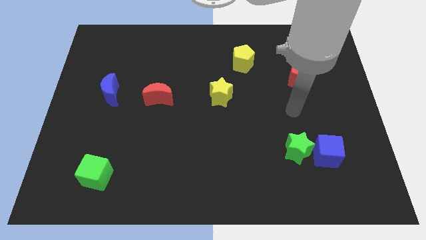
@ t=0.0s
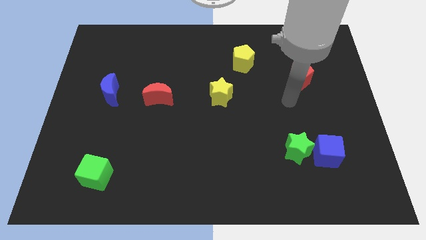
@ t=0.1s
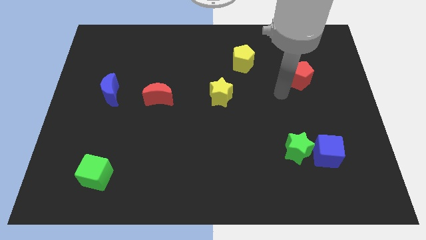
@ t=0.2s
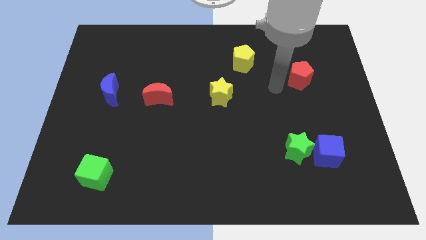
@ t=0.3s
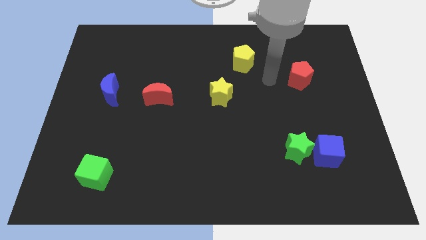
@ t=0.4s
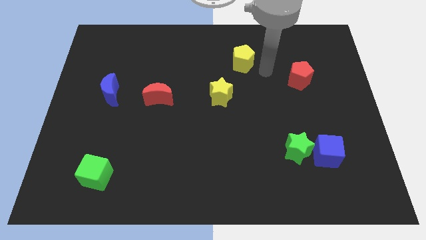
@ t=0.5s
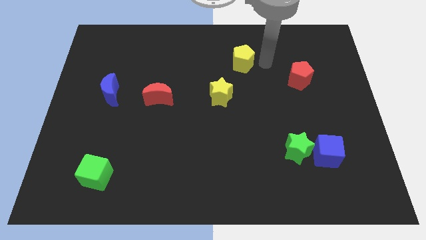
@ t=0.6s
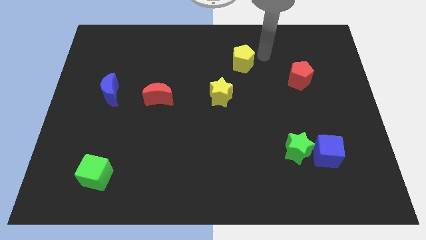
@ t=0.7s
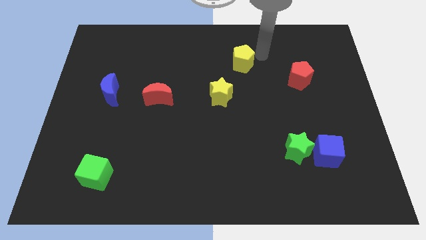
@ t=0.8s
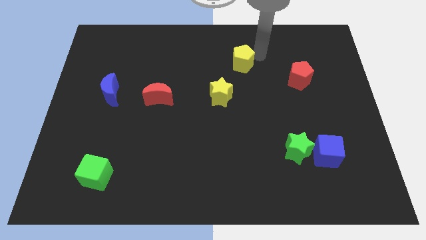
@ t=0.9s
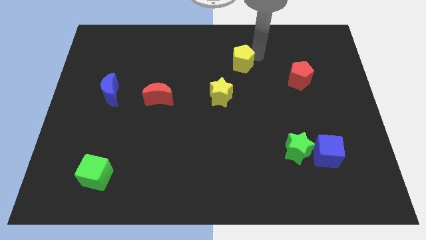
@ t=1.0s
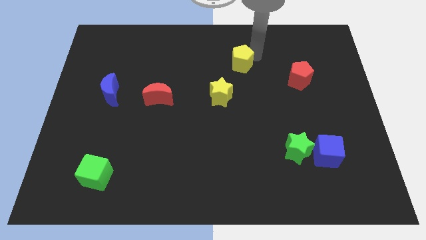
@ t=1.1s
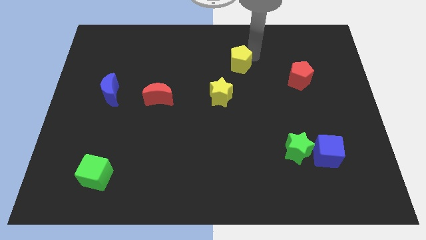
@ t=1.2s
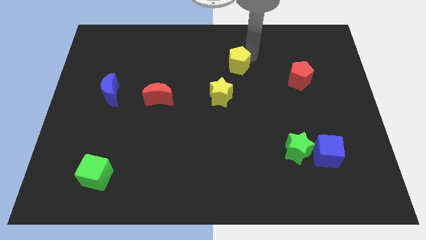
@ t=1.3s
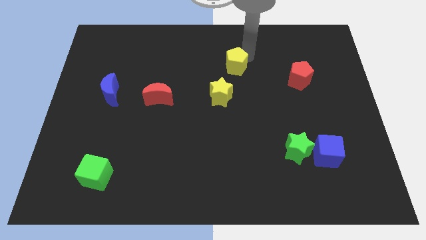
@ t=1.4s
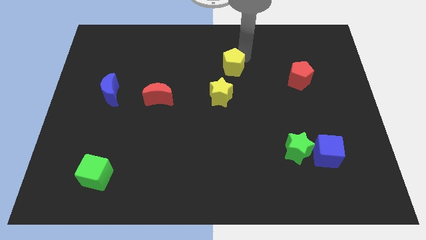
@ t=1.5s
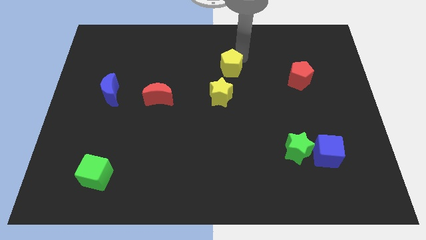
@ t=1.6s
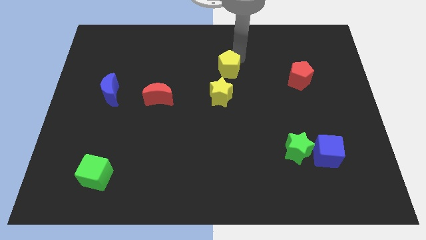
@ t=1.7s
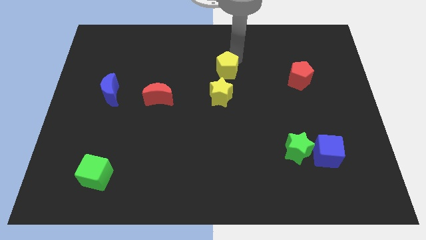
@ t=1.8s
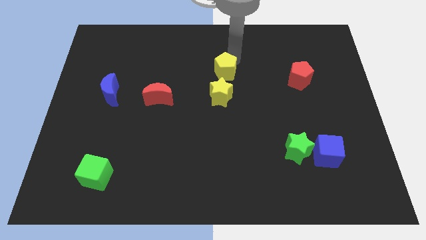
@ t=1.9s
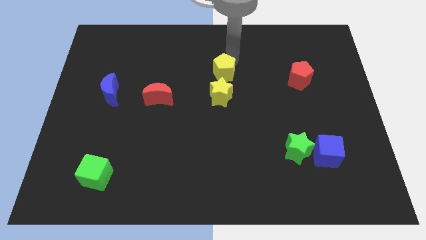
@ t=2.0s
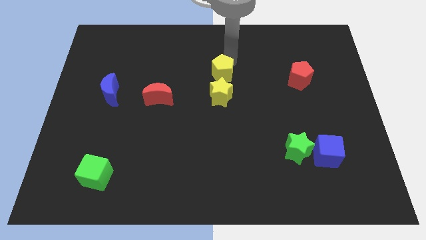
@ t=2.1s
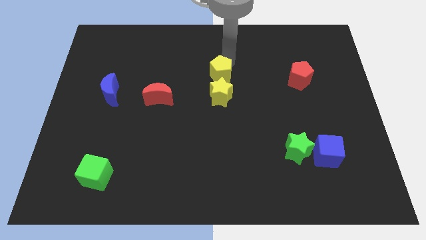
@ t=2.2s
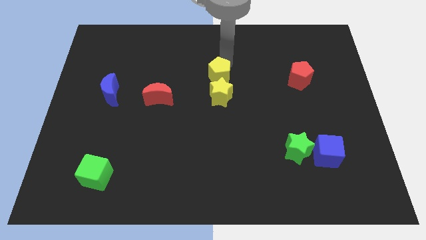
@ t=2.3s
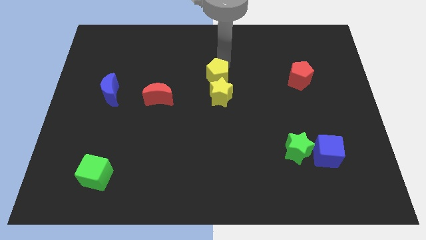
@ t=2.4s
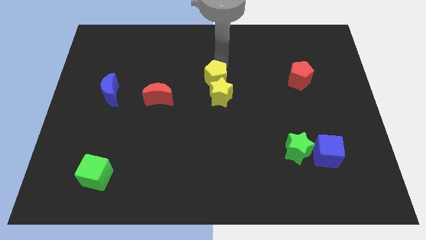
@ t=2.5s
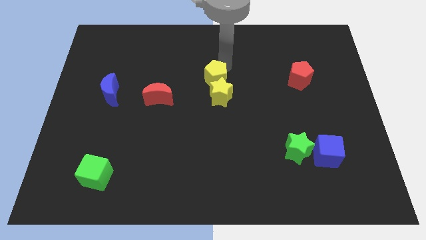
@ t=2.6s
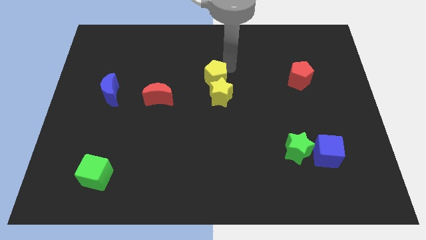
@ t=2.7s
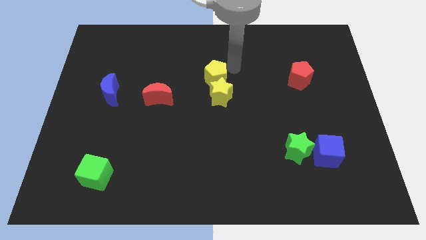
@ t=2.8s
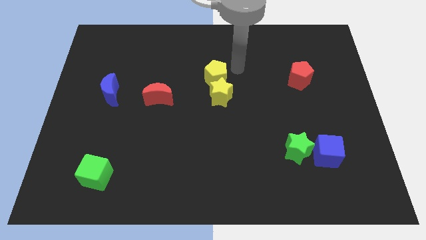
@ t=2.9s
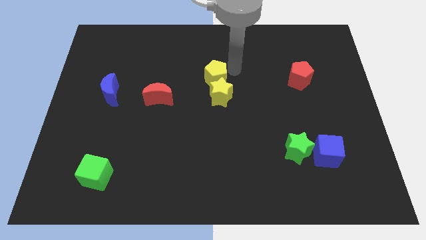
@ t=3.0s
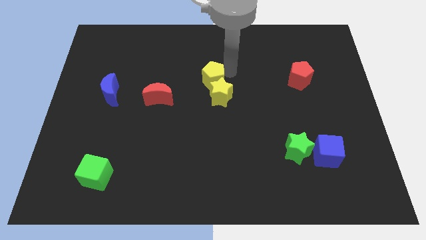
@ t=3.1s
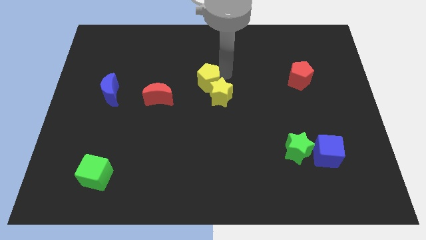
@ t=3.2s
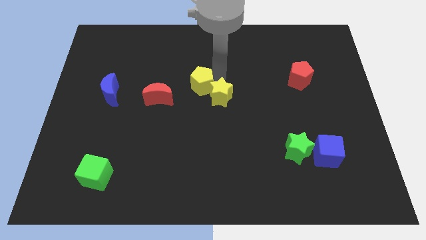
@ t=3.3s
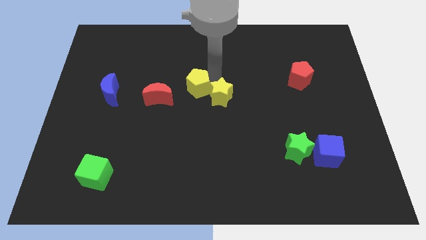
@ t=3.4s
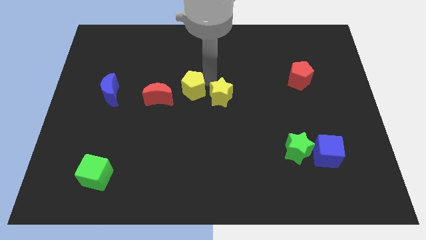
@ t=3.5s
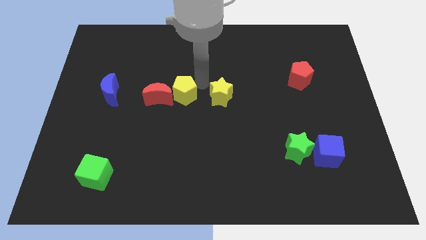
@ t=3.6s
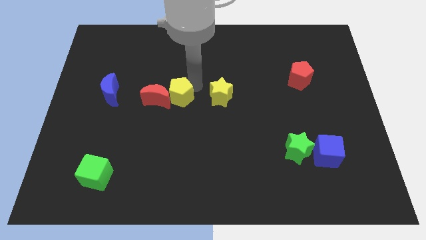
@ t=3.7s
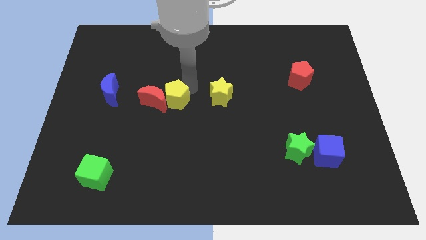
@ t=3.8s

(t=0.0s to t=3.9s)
move the yellow pentagon downwards and to the left diagonally

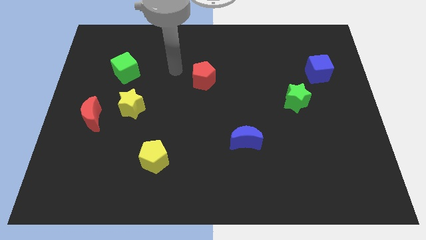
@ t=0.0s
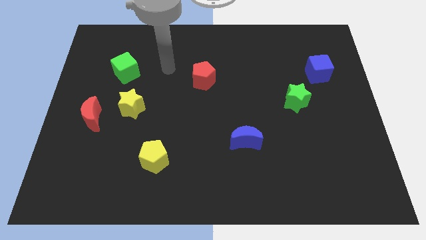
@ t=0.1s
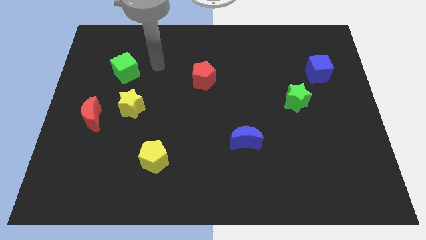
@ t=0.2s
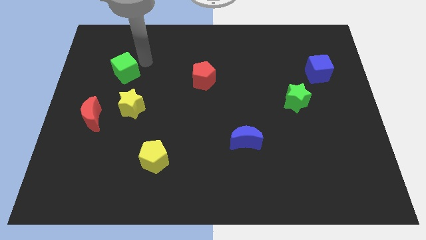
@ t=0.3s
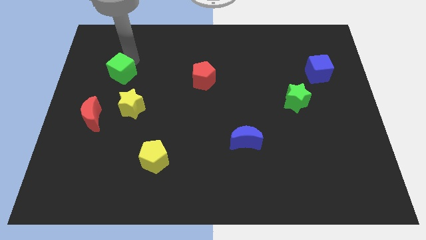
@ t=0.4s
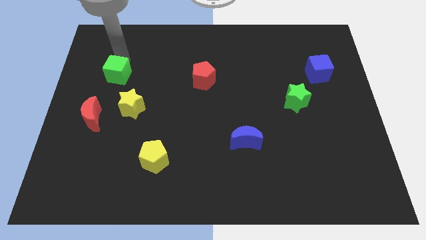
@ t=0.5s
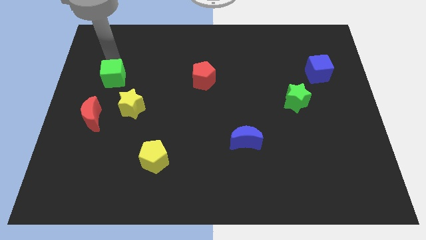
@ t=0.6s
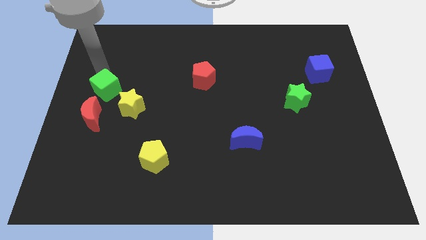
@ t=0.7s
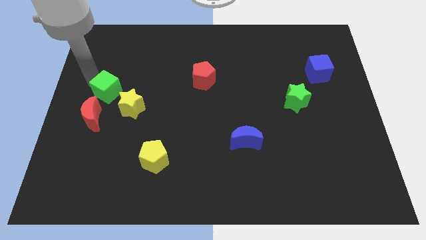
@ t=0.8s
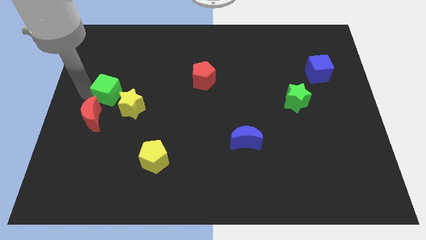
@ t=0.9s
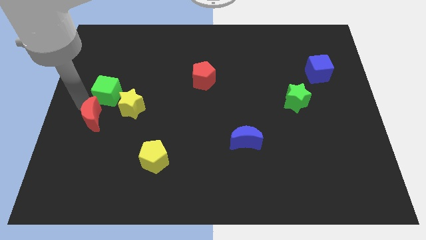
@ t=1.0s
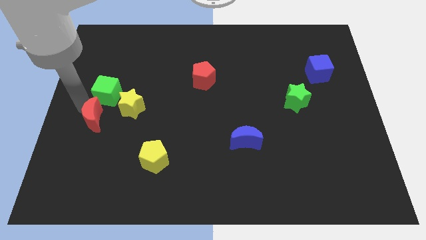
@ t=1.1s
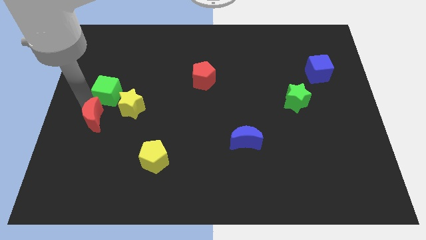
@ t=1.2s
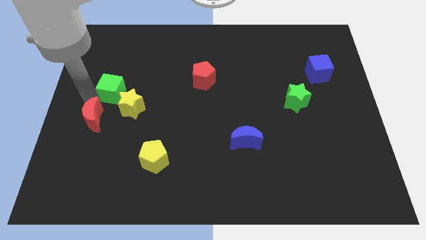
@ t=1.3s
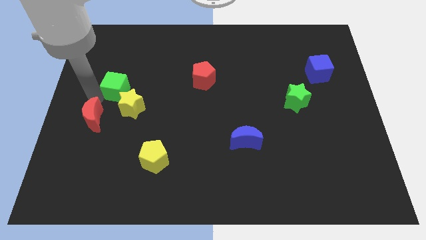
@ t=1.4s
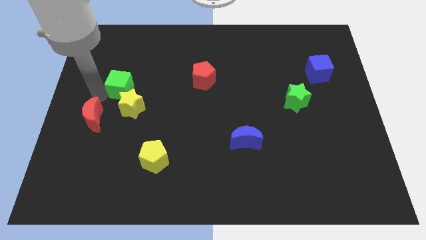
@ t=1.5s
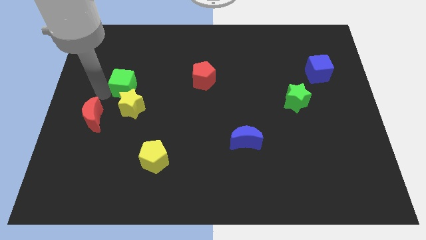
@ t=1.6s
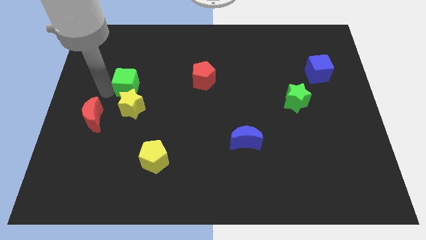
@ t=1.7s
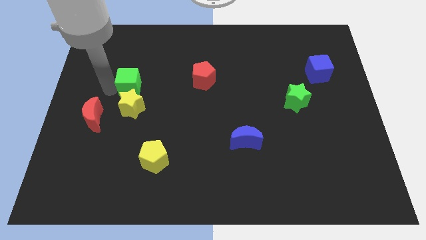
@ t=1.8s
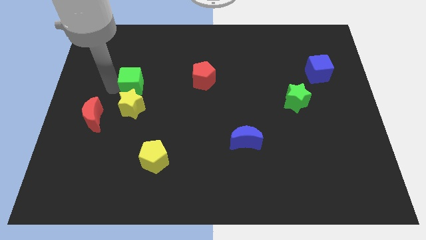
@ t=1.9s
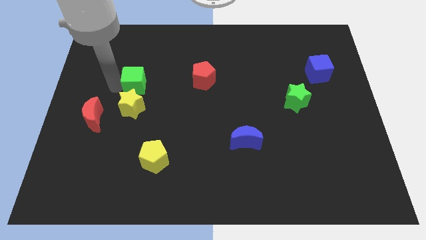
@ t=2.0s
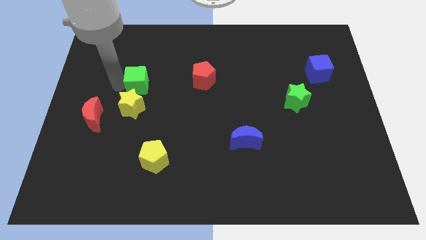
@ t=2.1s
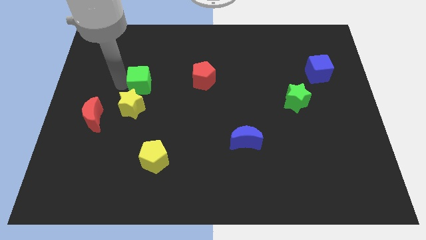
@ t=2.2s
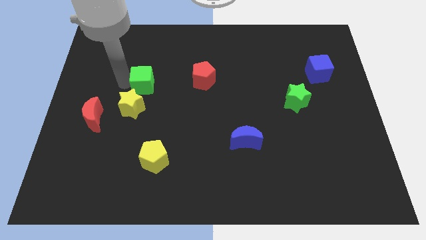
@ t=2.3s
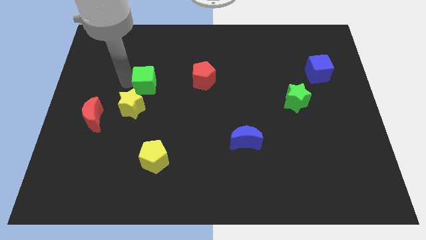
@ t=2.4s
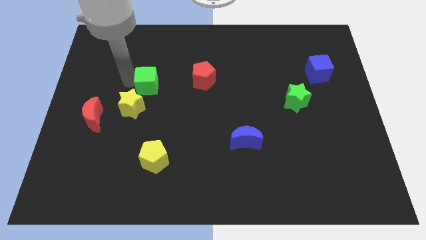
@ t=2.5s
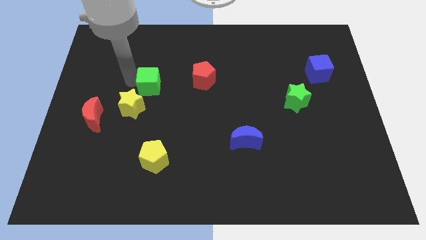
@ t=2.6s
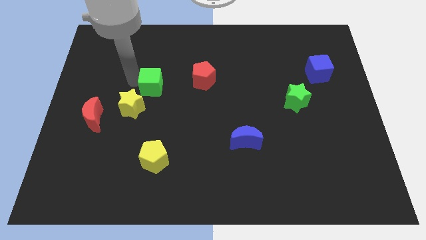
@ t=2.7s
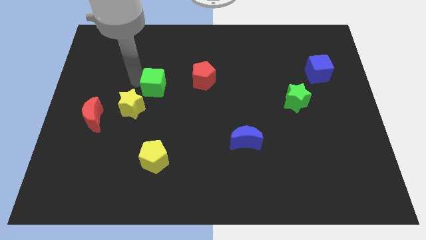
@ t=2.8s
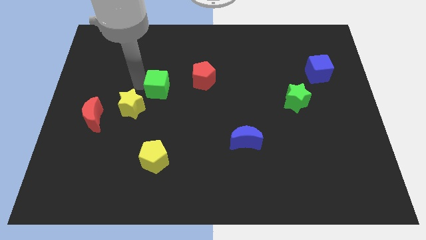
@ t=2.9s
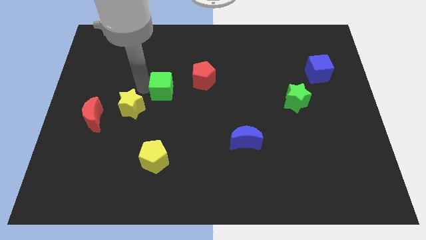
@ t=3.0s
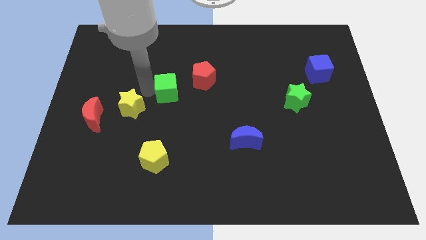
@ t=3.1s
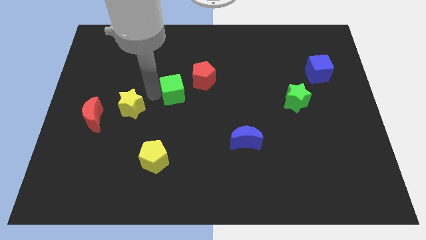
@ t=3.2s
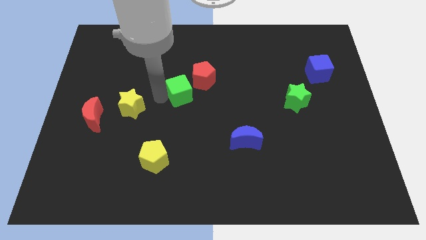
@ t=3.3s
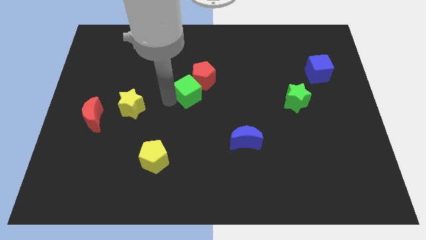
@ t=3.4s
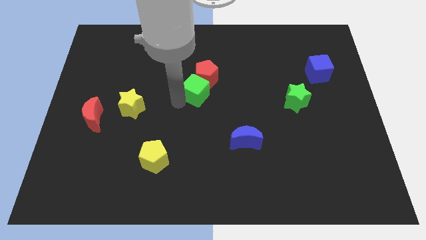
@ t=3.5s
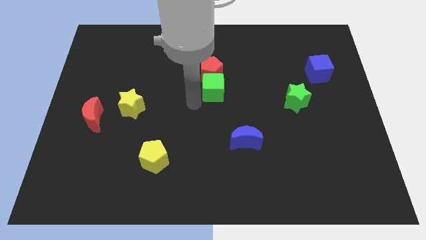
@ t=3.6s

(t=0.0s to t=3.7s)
move the green cube to the right

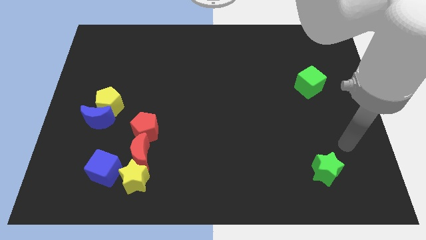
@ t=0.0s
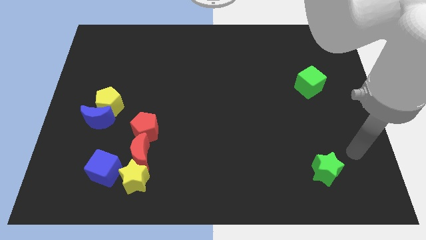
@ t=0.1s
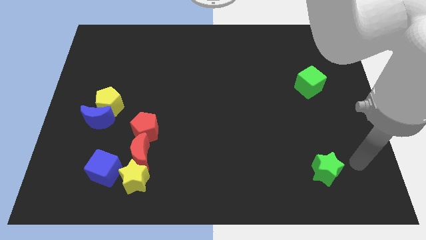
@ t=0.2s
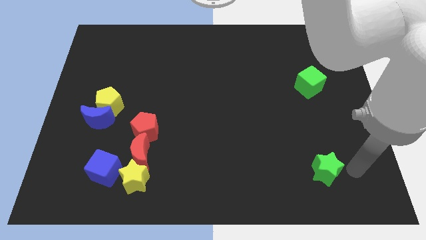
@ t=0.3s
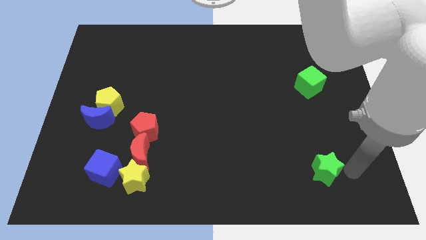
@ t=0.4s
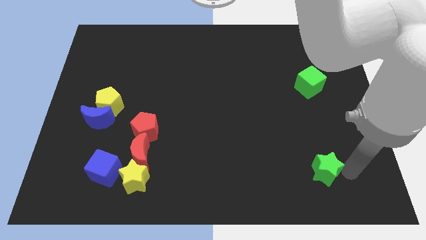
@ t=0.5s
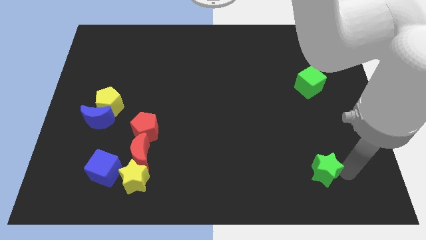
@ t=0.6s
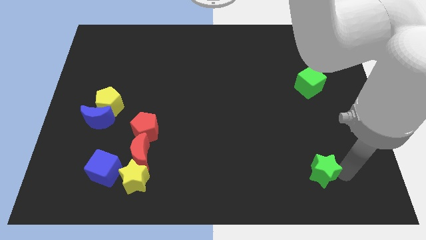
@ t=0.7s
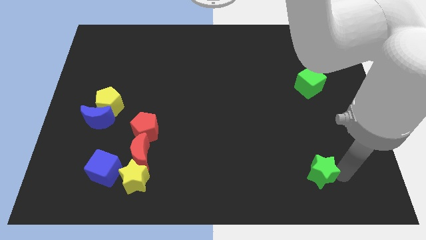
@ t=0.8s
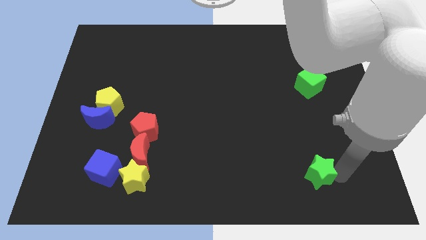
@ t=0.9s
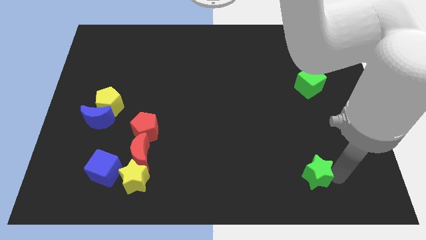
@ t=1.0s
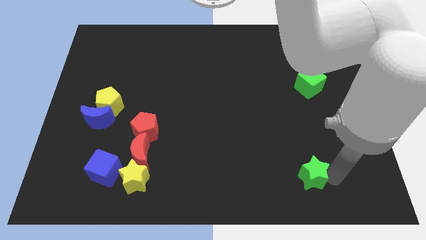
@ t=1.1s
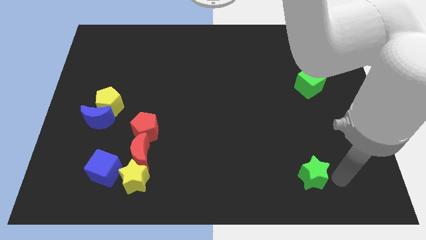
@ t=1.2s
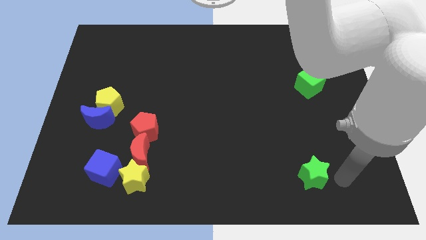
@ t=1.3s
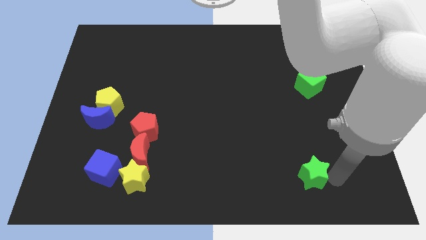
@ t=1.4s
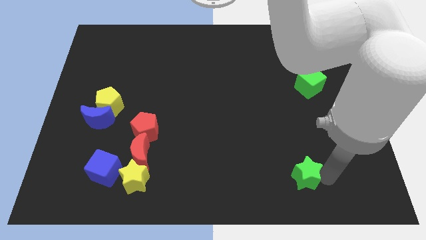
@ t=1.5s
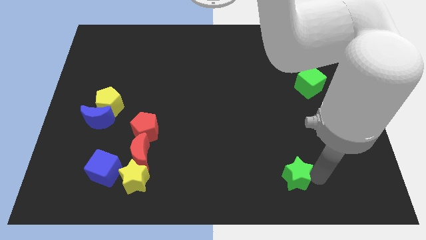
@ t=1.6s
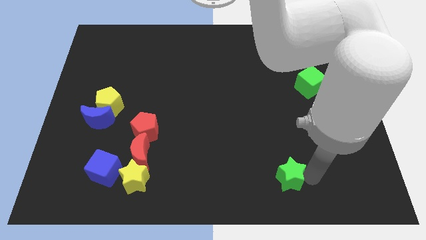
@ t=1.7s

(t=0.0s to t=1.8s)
slightly slide the green star to the left
